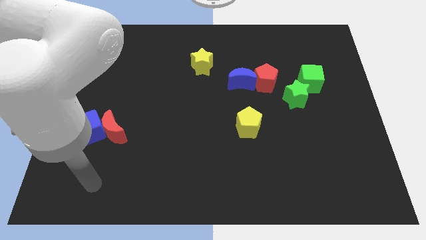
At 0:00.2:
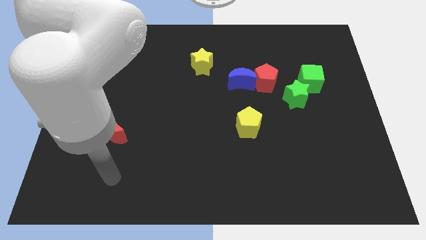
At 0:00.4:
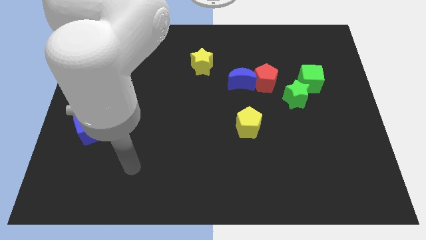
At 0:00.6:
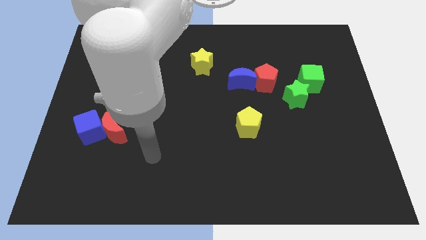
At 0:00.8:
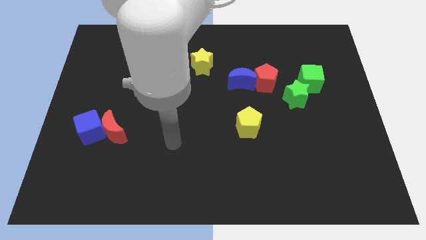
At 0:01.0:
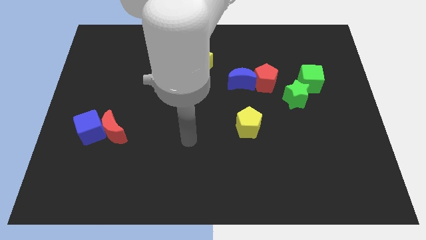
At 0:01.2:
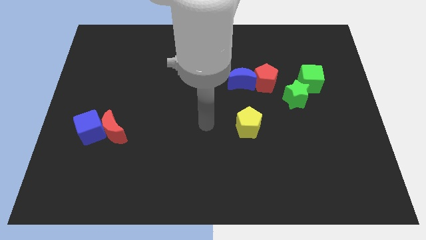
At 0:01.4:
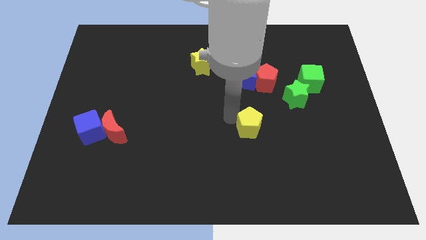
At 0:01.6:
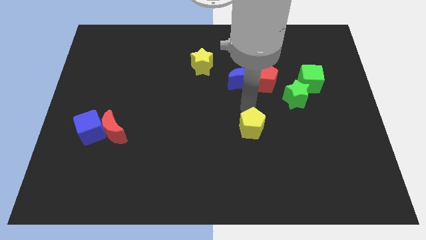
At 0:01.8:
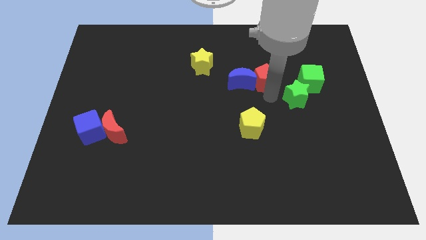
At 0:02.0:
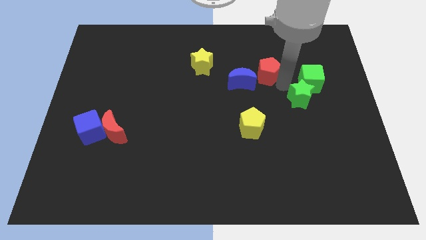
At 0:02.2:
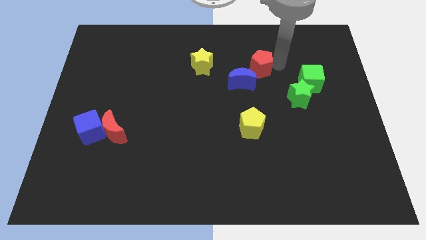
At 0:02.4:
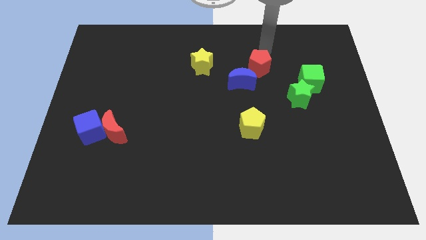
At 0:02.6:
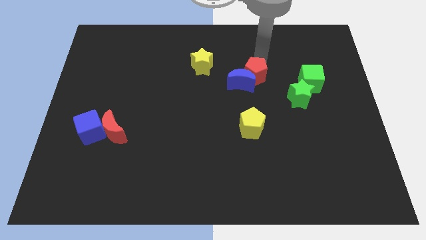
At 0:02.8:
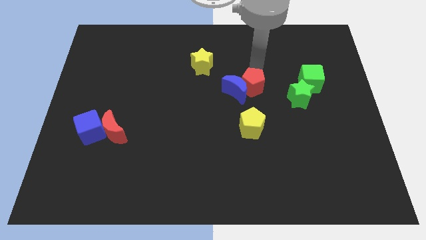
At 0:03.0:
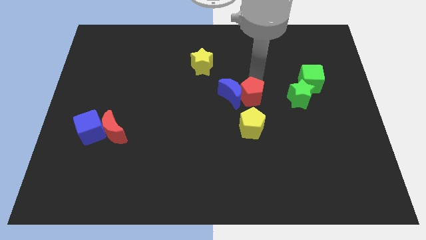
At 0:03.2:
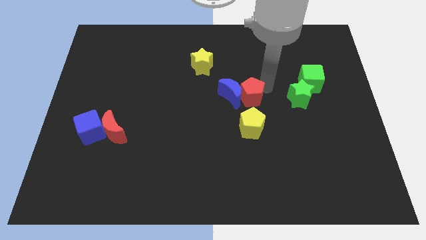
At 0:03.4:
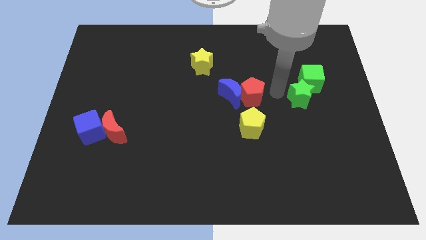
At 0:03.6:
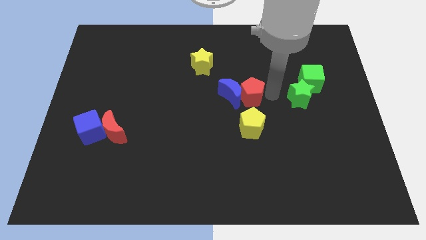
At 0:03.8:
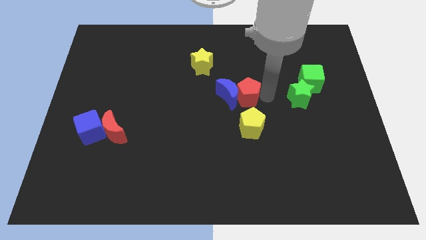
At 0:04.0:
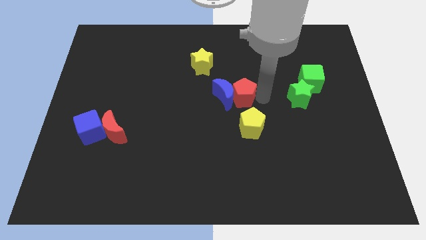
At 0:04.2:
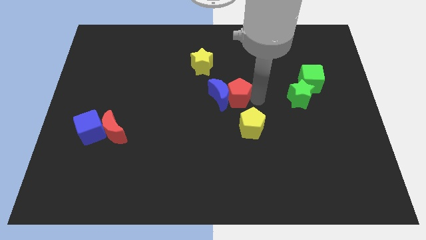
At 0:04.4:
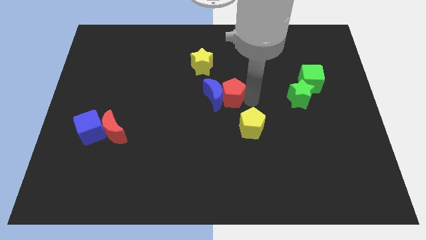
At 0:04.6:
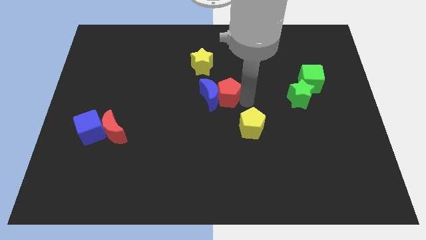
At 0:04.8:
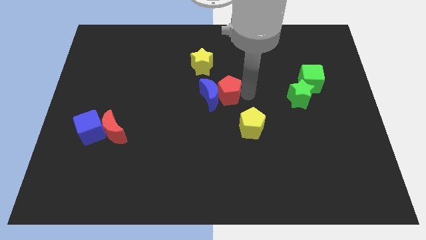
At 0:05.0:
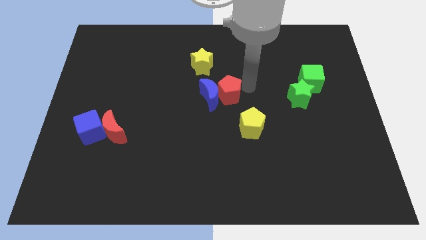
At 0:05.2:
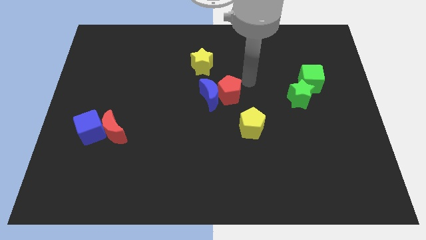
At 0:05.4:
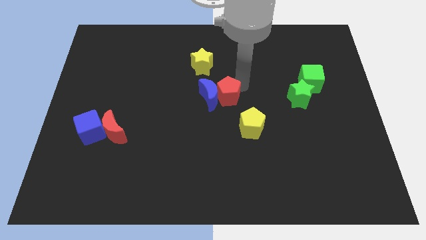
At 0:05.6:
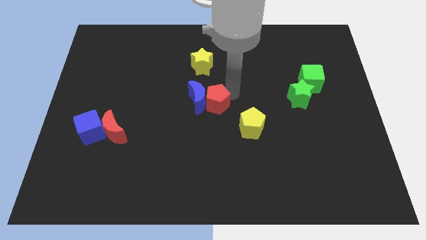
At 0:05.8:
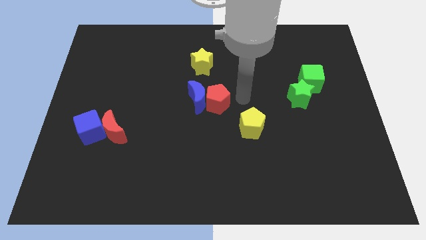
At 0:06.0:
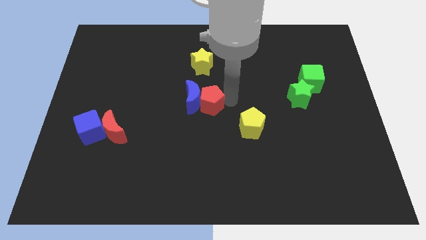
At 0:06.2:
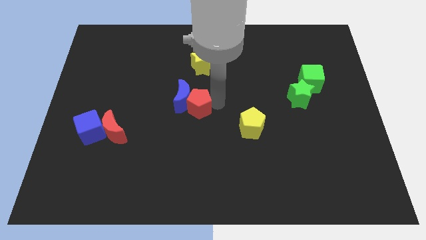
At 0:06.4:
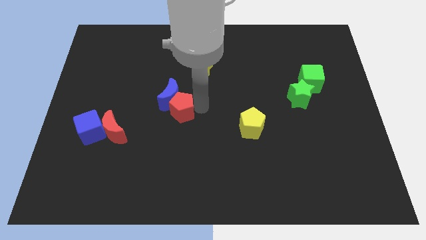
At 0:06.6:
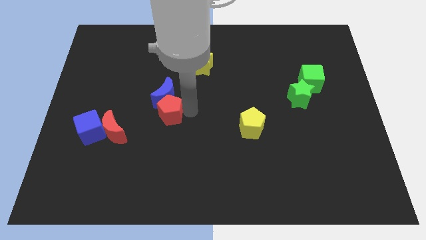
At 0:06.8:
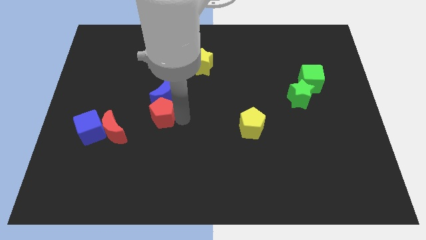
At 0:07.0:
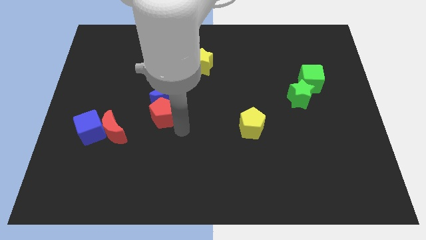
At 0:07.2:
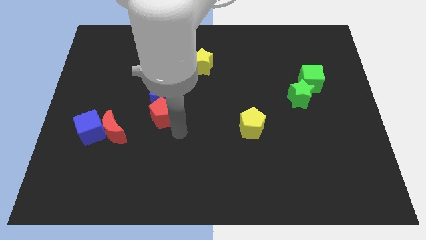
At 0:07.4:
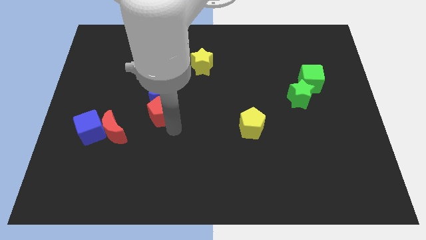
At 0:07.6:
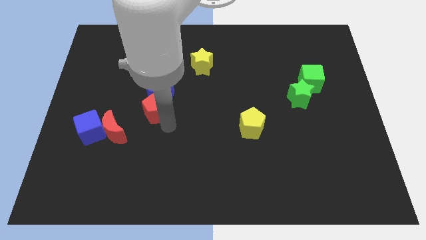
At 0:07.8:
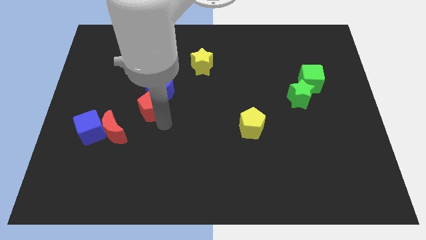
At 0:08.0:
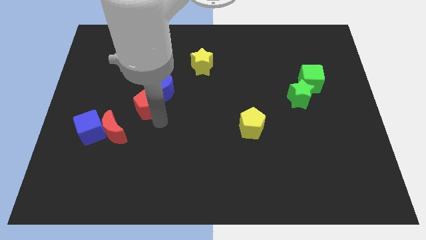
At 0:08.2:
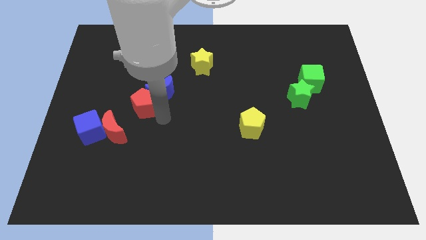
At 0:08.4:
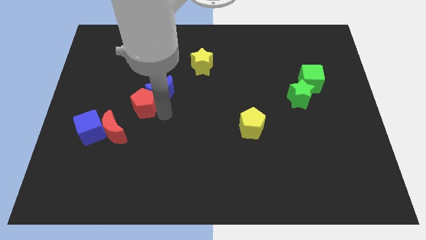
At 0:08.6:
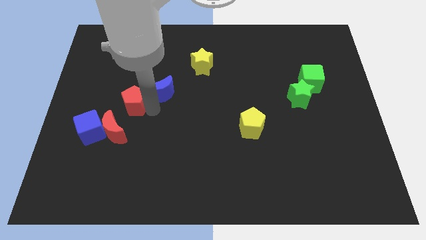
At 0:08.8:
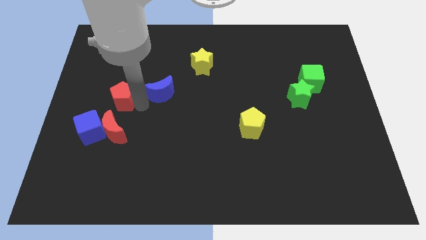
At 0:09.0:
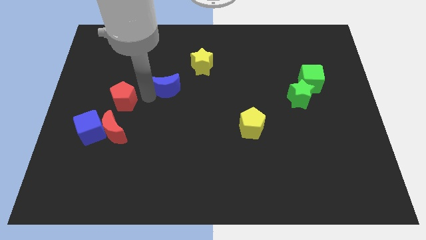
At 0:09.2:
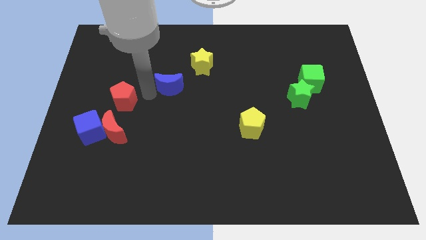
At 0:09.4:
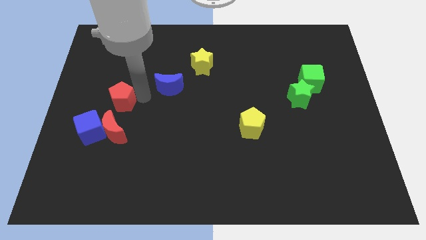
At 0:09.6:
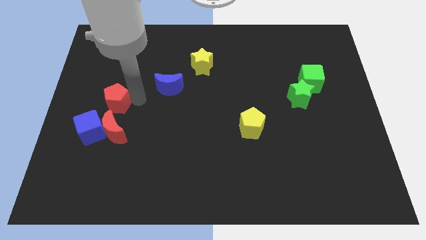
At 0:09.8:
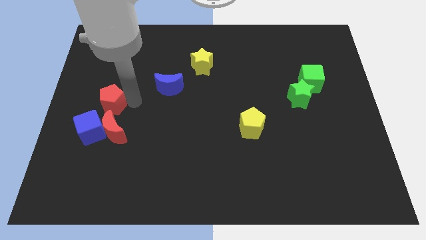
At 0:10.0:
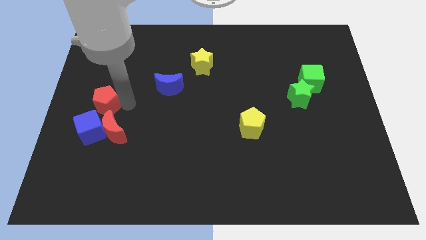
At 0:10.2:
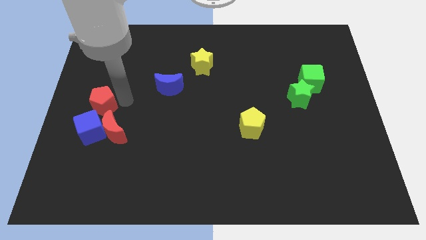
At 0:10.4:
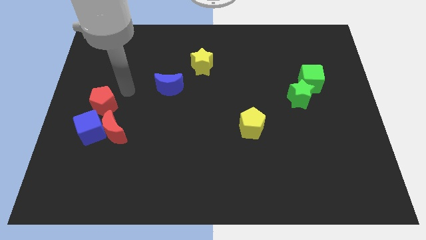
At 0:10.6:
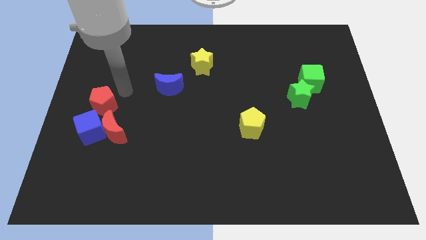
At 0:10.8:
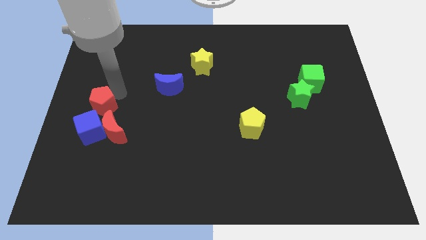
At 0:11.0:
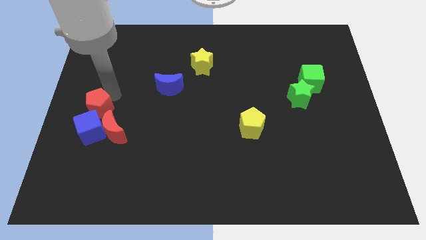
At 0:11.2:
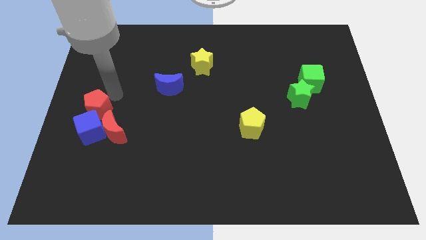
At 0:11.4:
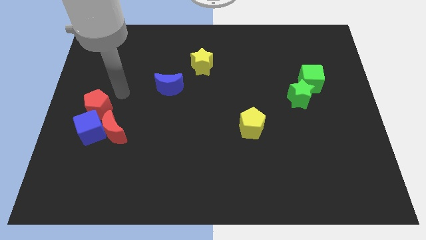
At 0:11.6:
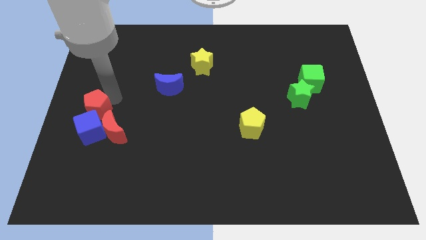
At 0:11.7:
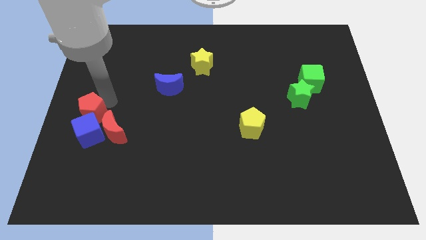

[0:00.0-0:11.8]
put the red pentagon towards the blue cube

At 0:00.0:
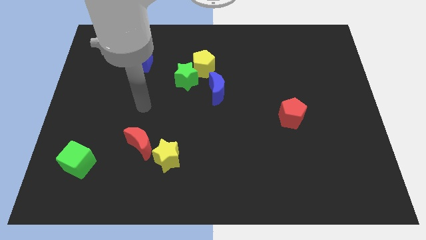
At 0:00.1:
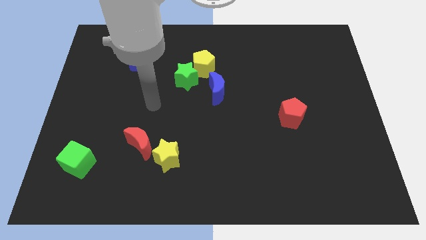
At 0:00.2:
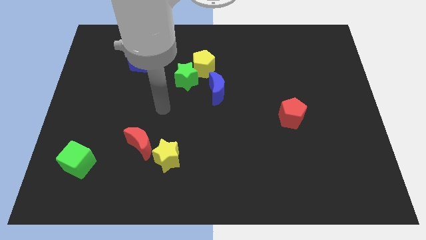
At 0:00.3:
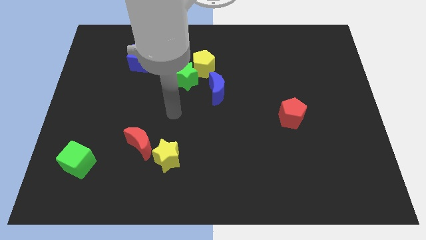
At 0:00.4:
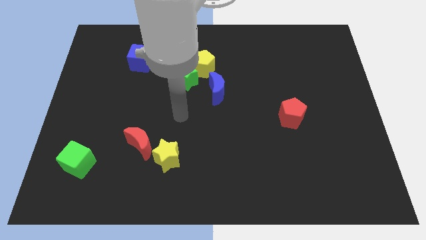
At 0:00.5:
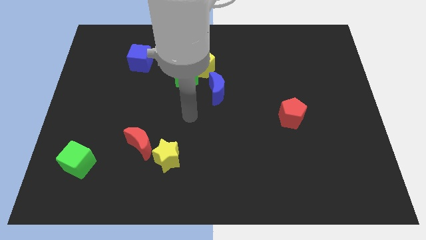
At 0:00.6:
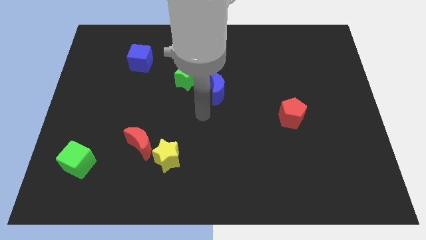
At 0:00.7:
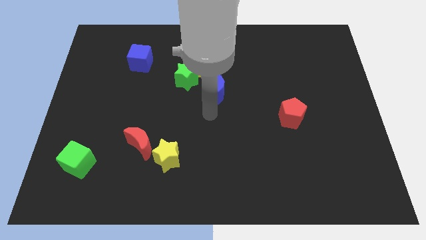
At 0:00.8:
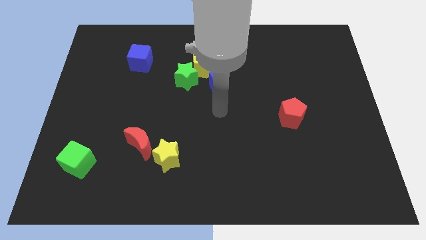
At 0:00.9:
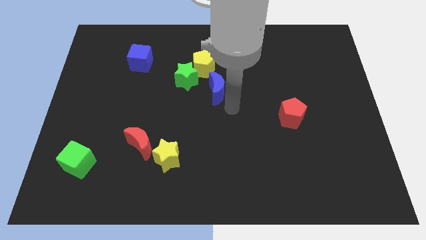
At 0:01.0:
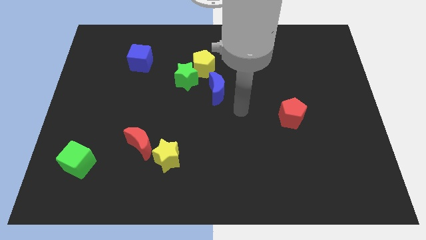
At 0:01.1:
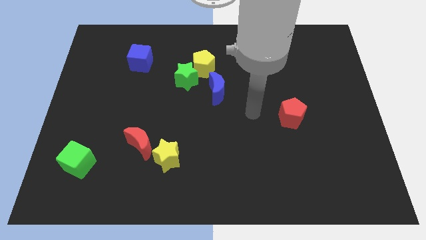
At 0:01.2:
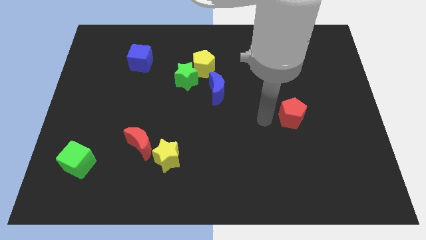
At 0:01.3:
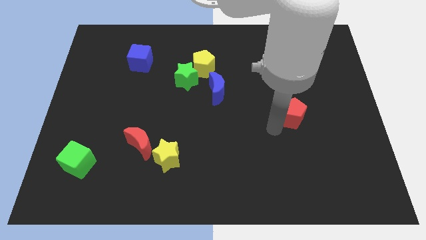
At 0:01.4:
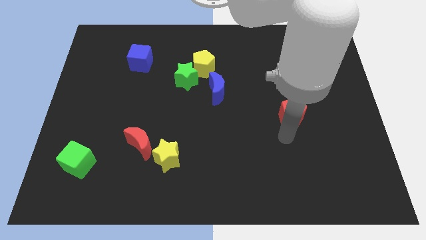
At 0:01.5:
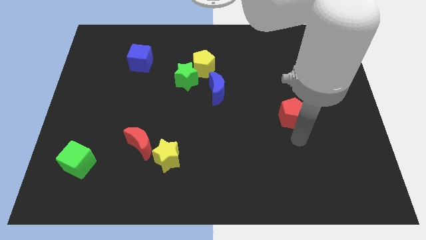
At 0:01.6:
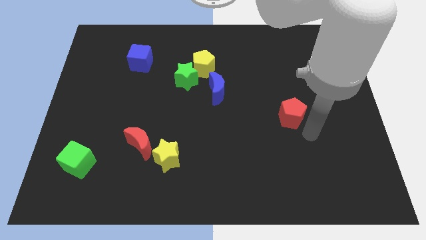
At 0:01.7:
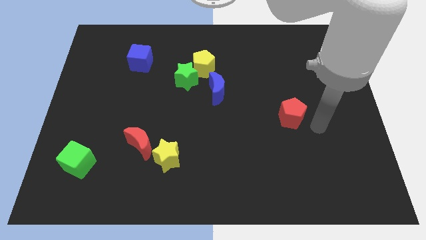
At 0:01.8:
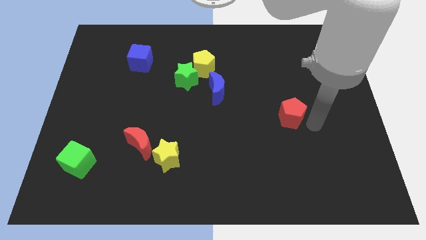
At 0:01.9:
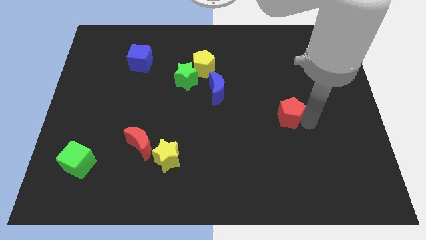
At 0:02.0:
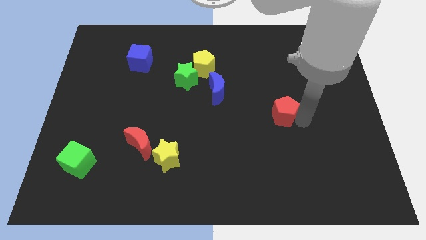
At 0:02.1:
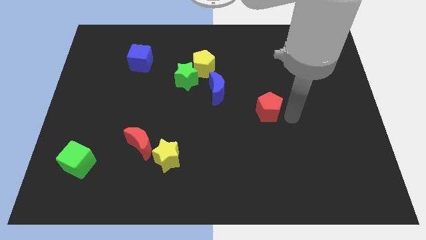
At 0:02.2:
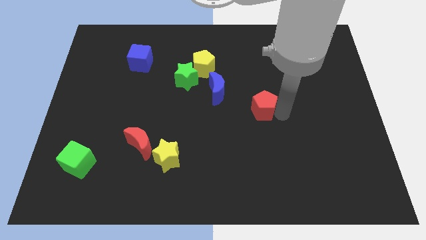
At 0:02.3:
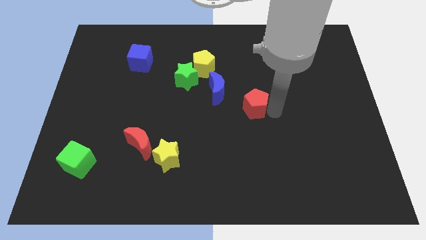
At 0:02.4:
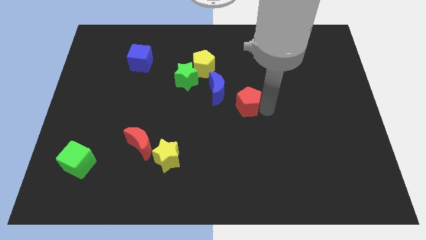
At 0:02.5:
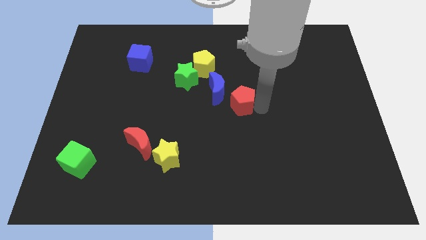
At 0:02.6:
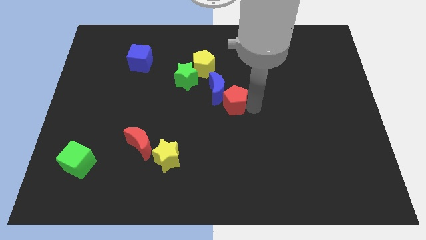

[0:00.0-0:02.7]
put the red pentagon close to the blue moon
